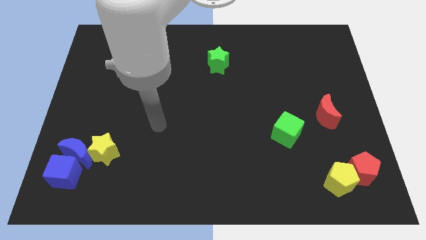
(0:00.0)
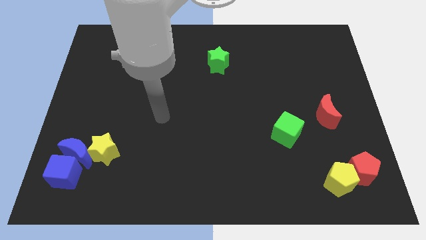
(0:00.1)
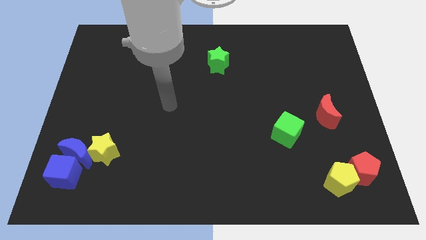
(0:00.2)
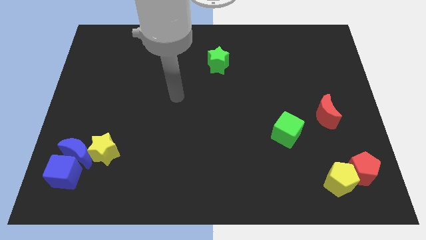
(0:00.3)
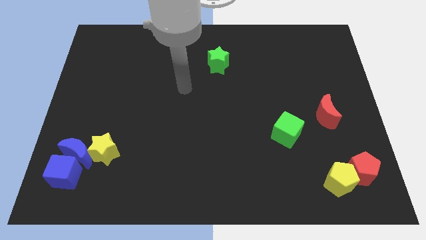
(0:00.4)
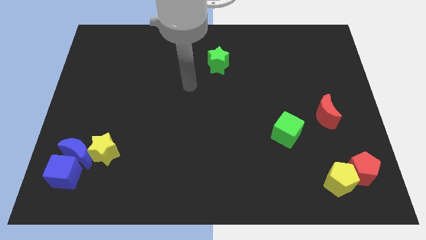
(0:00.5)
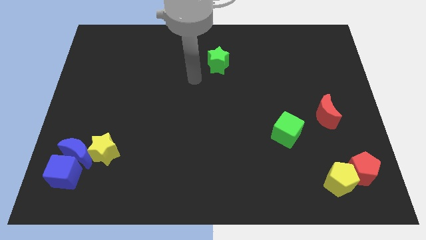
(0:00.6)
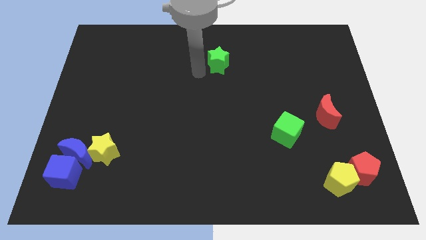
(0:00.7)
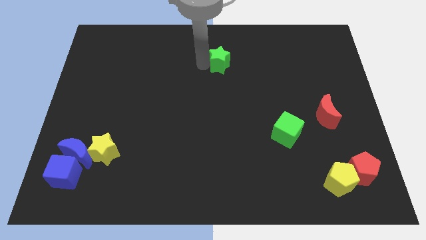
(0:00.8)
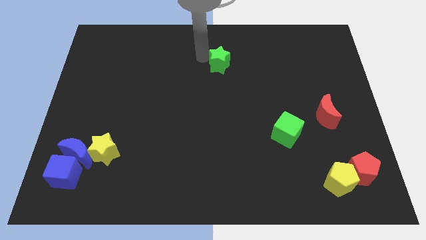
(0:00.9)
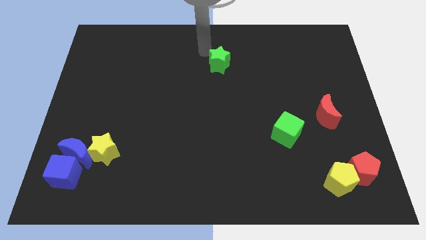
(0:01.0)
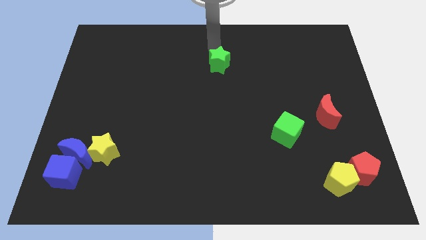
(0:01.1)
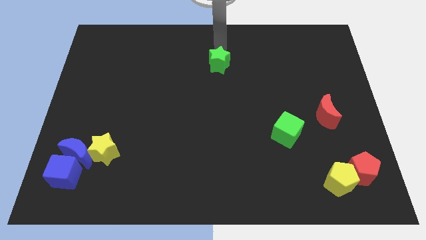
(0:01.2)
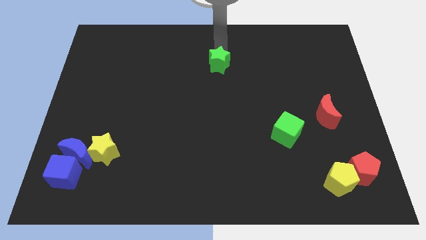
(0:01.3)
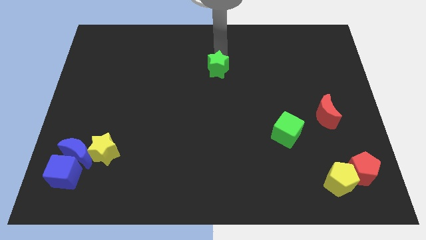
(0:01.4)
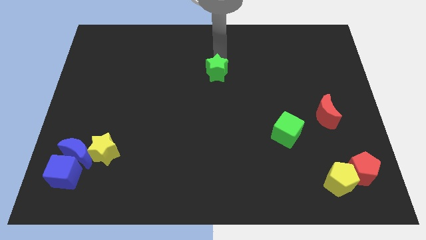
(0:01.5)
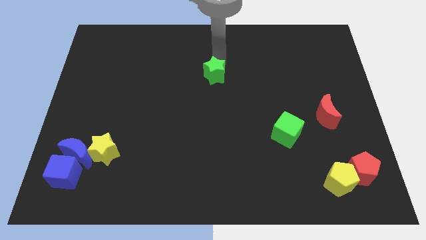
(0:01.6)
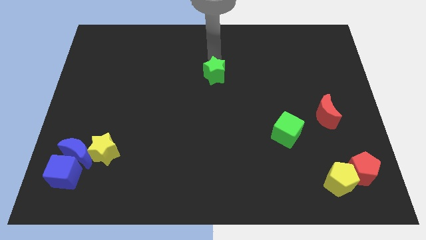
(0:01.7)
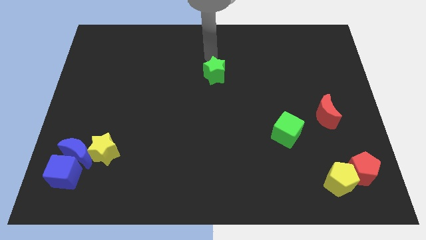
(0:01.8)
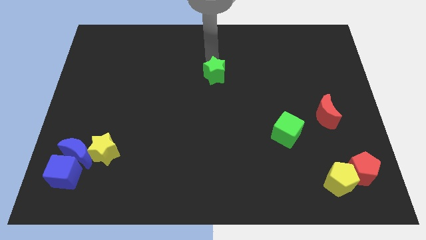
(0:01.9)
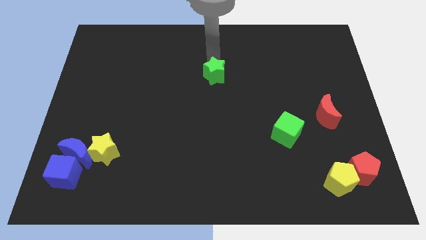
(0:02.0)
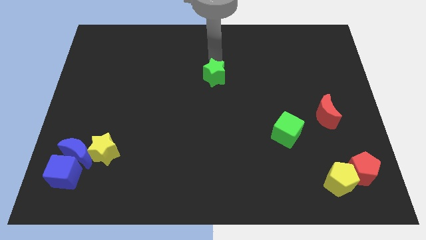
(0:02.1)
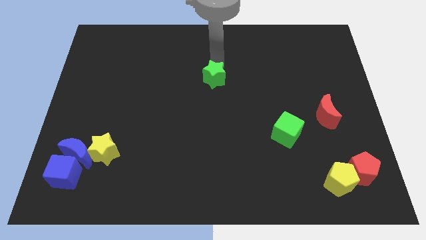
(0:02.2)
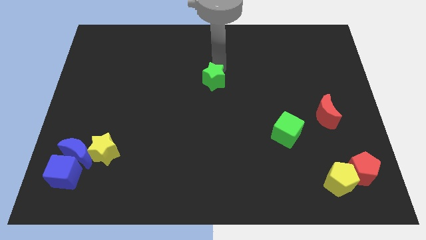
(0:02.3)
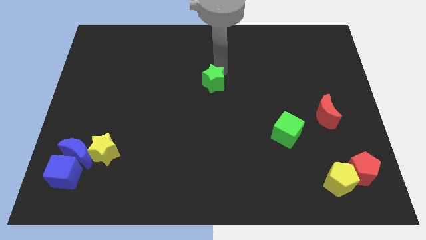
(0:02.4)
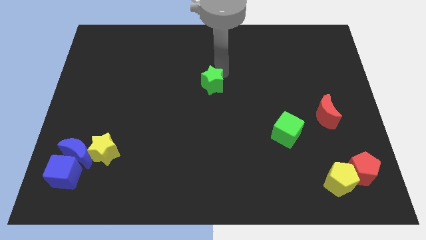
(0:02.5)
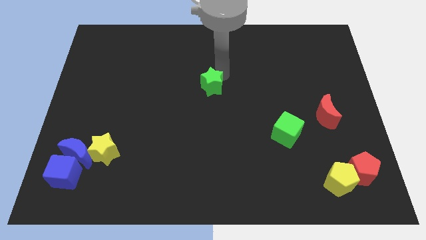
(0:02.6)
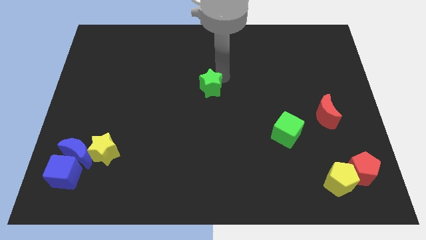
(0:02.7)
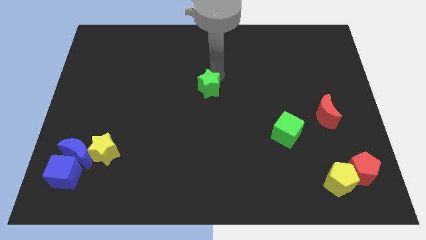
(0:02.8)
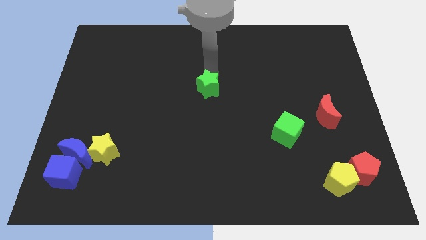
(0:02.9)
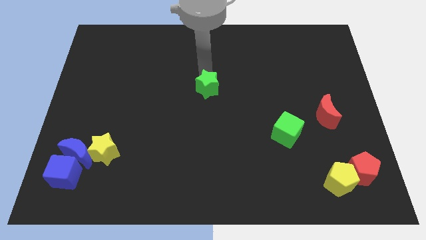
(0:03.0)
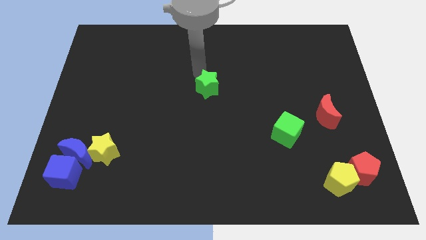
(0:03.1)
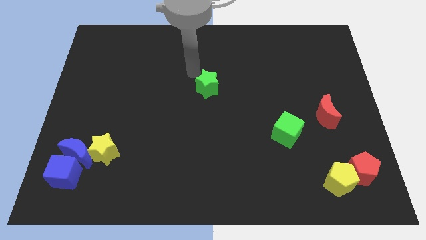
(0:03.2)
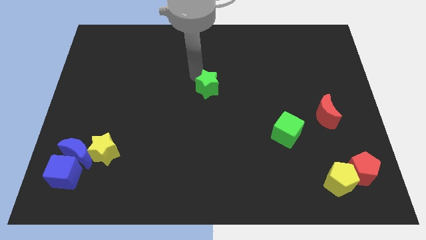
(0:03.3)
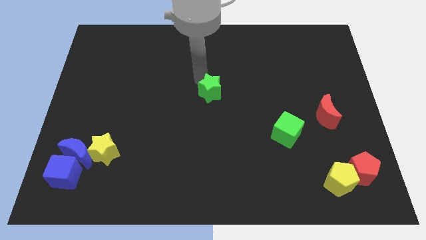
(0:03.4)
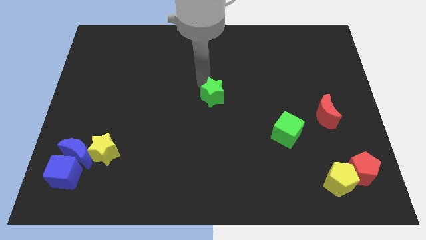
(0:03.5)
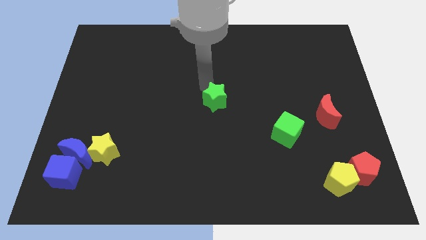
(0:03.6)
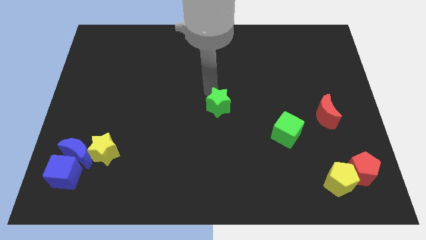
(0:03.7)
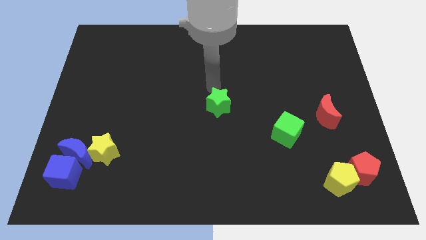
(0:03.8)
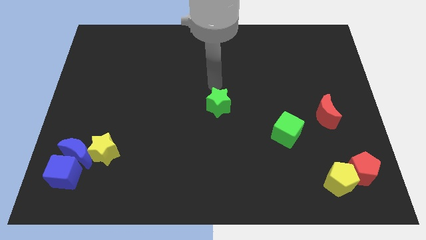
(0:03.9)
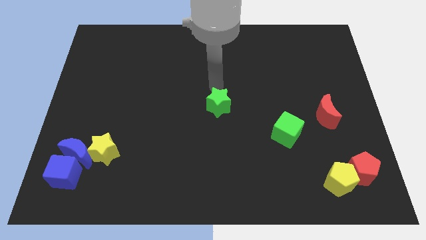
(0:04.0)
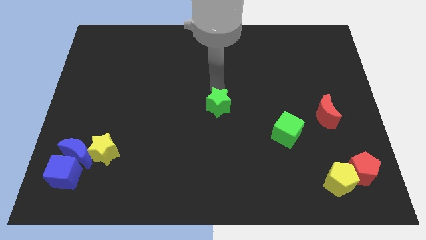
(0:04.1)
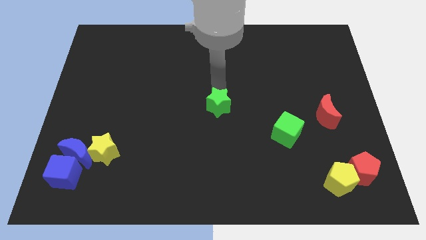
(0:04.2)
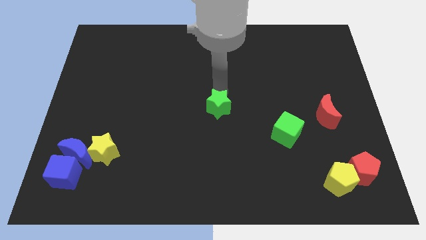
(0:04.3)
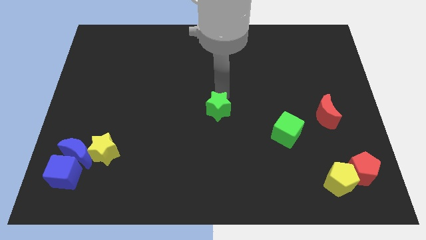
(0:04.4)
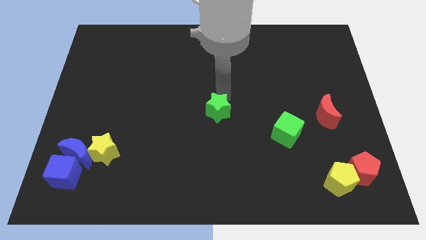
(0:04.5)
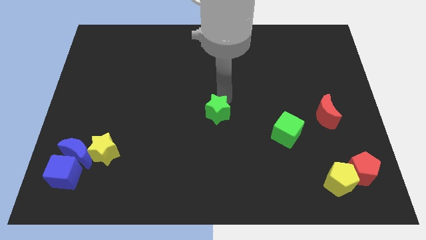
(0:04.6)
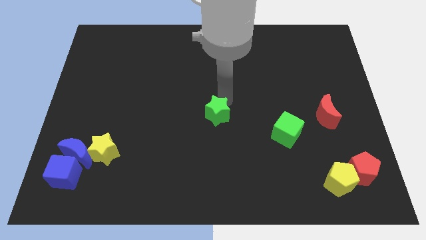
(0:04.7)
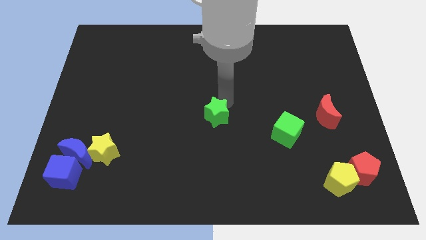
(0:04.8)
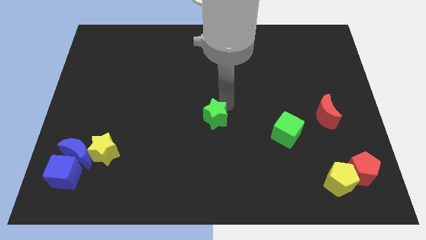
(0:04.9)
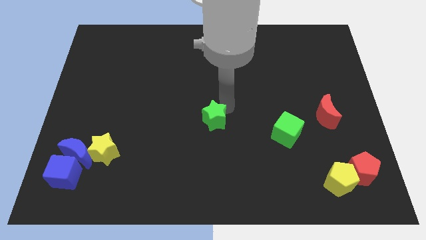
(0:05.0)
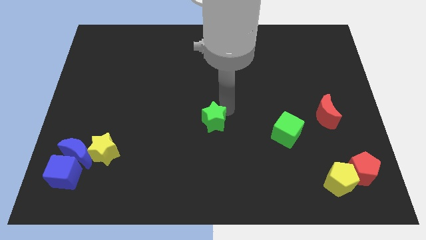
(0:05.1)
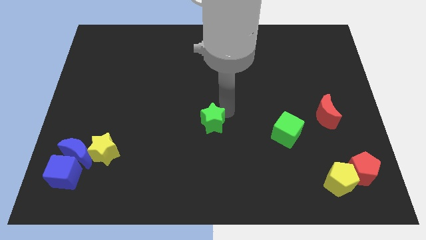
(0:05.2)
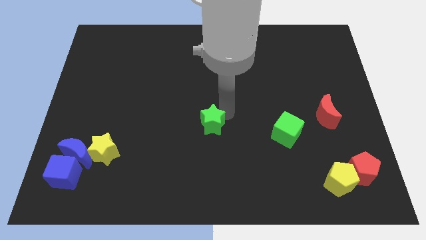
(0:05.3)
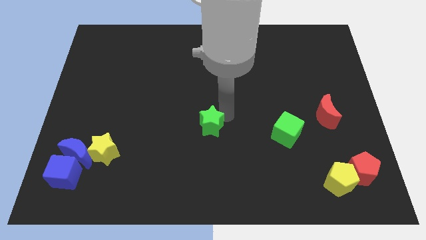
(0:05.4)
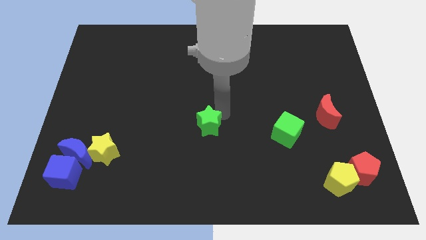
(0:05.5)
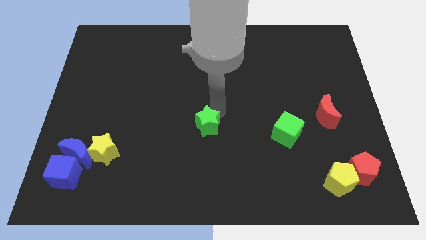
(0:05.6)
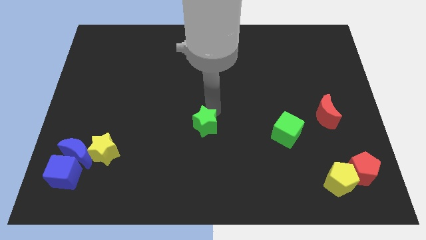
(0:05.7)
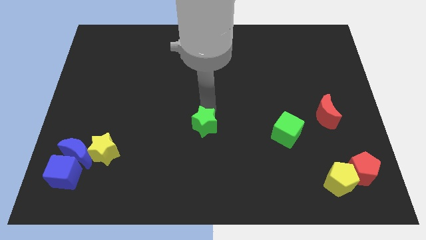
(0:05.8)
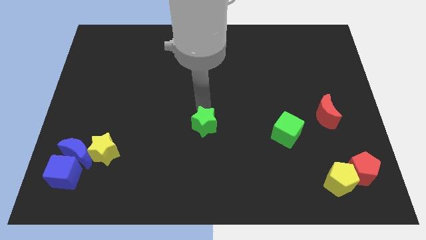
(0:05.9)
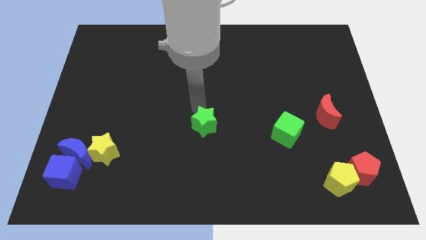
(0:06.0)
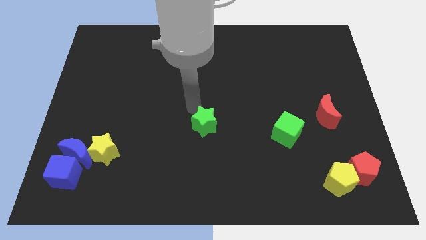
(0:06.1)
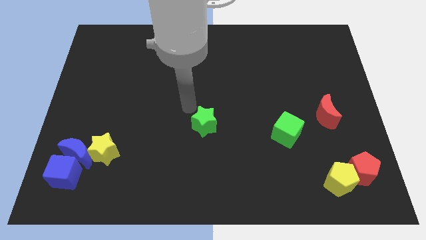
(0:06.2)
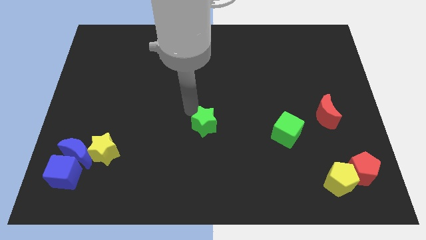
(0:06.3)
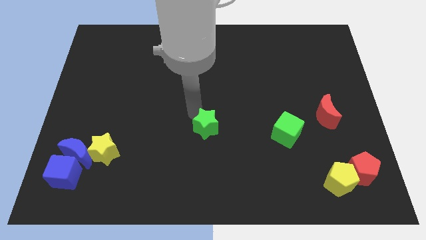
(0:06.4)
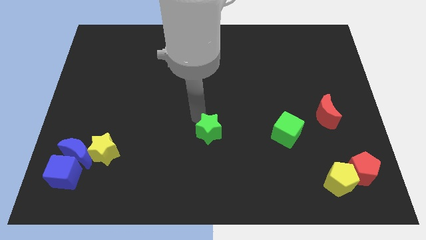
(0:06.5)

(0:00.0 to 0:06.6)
slide the green star down

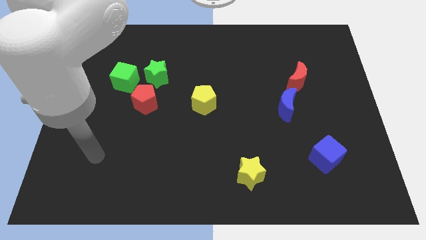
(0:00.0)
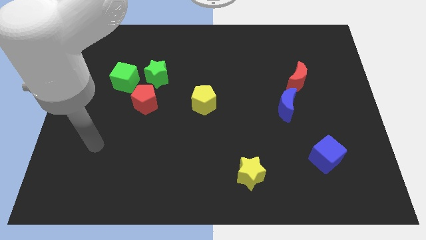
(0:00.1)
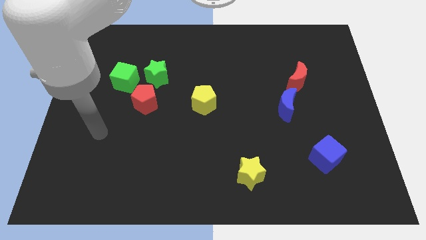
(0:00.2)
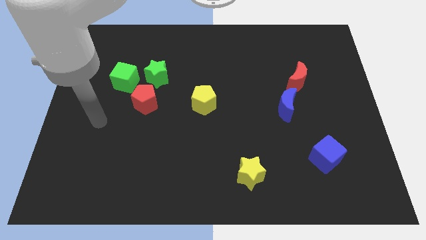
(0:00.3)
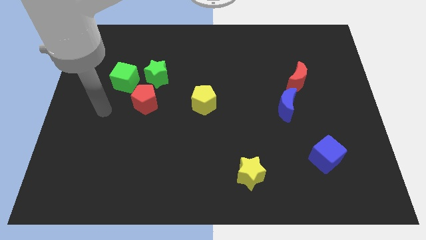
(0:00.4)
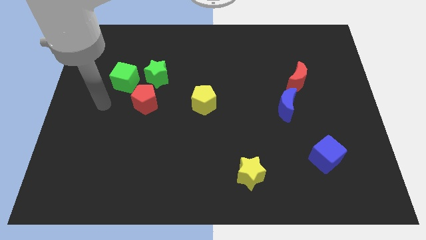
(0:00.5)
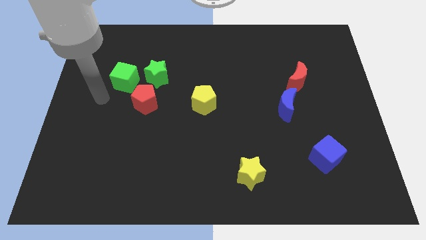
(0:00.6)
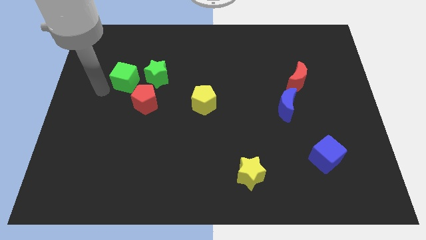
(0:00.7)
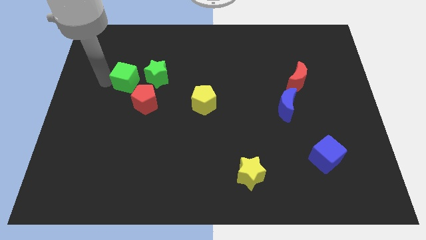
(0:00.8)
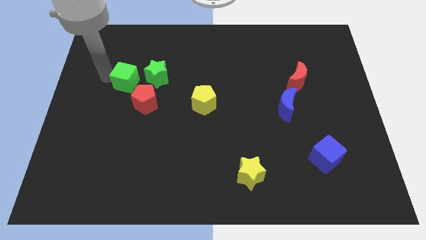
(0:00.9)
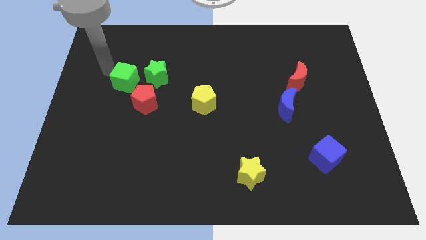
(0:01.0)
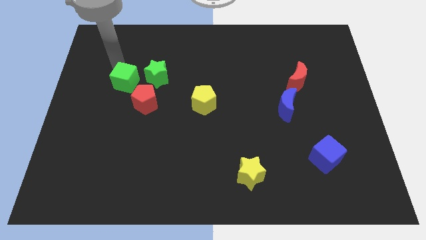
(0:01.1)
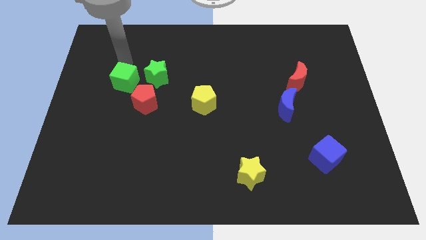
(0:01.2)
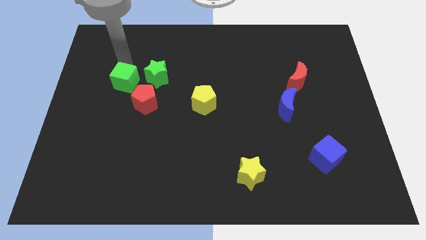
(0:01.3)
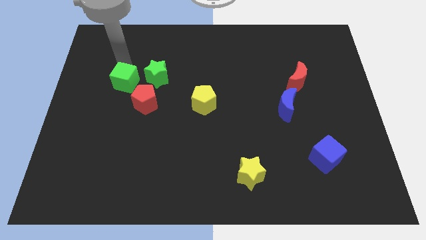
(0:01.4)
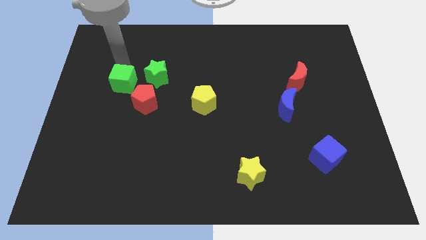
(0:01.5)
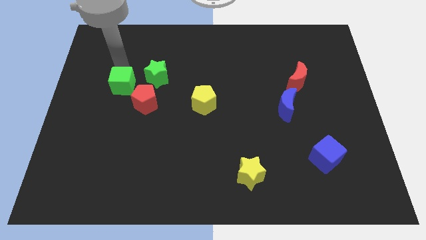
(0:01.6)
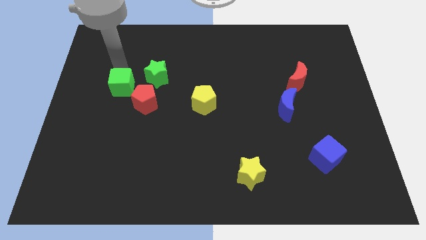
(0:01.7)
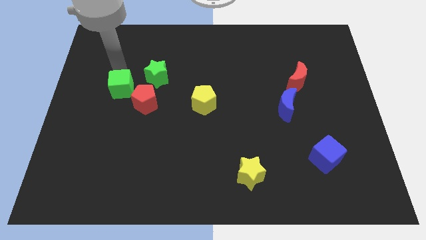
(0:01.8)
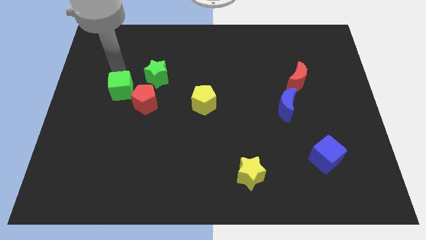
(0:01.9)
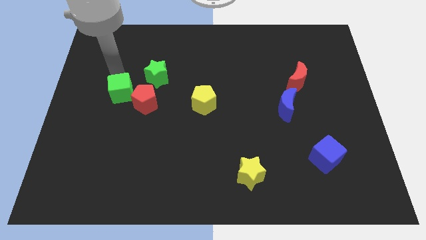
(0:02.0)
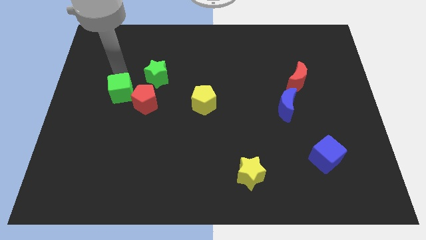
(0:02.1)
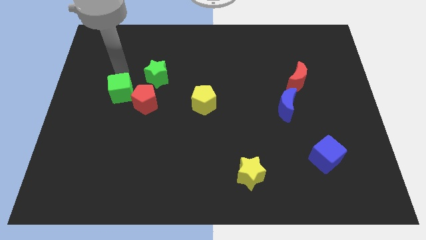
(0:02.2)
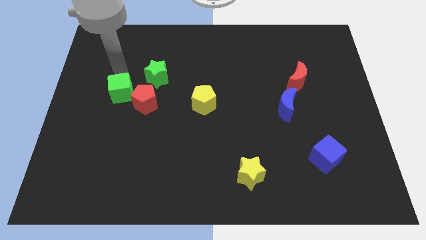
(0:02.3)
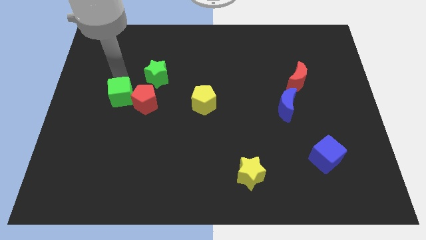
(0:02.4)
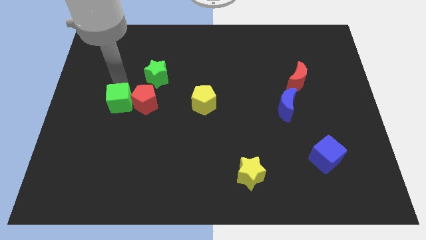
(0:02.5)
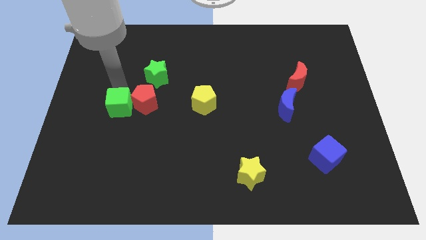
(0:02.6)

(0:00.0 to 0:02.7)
push the green cube somewhat downwards
